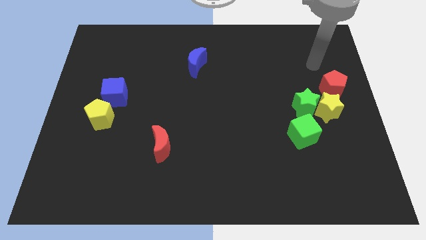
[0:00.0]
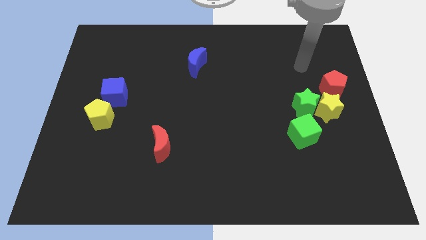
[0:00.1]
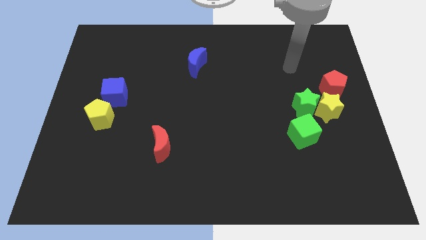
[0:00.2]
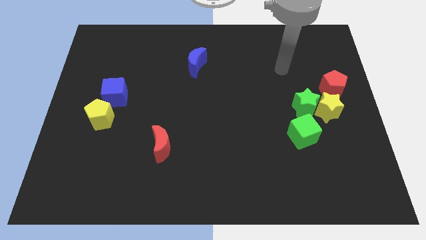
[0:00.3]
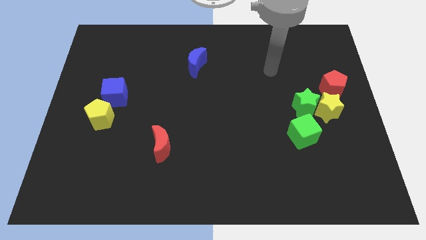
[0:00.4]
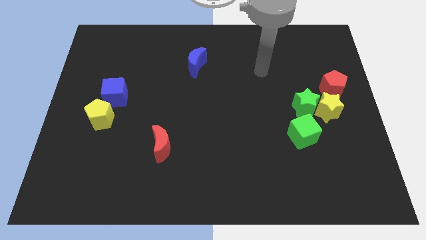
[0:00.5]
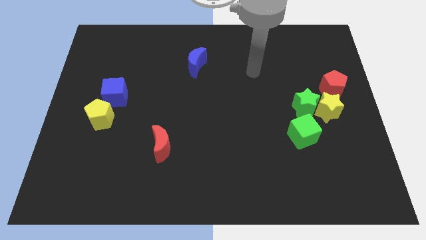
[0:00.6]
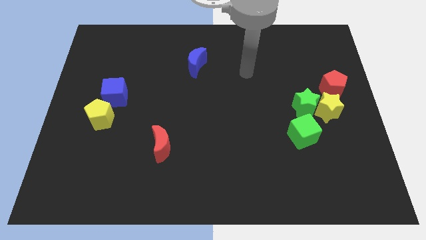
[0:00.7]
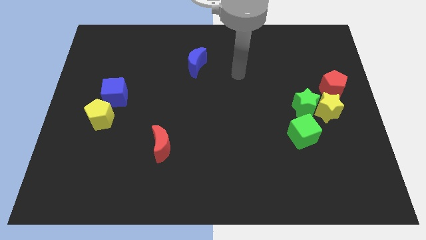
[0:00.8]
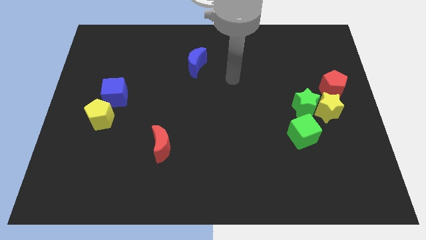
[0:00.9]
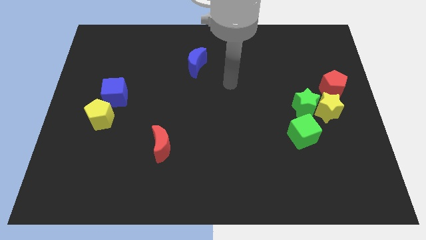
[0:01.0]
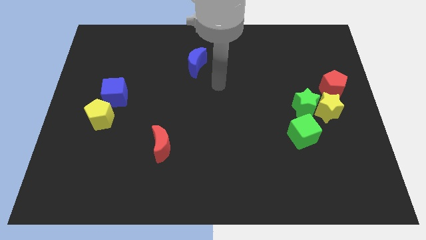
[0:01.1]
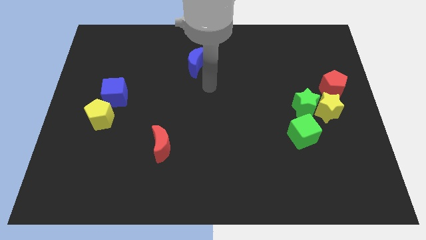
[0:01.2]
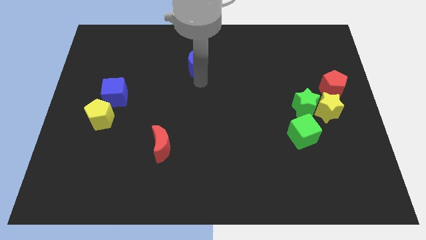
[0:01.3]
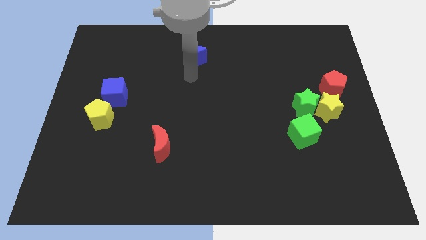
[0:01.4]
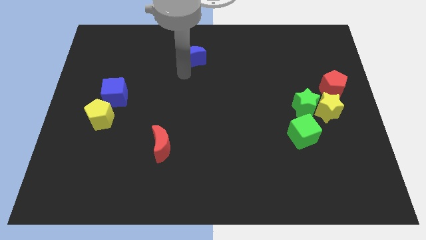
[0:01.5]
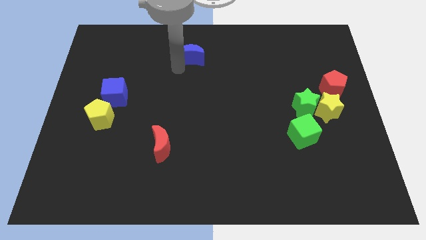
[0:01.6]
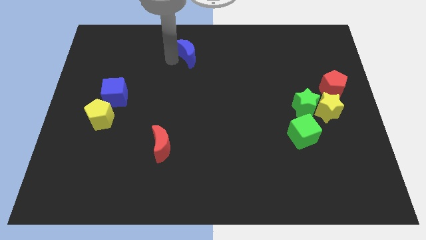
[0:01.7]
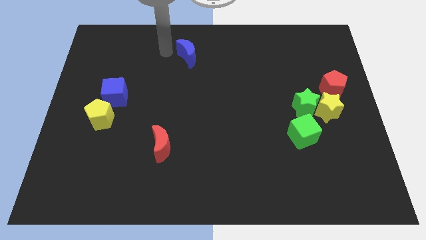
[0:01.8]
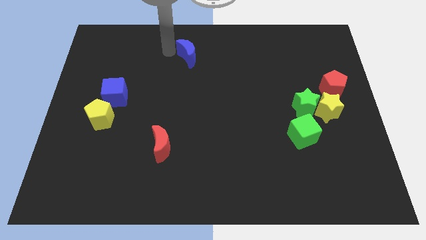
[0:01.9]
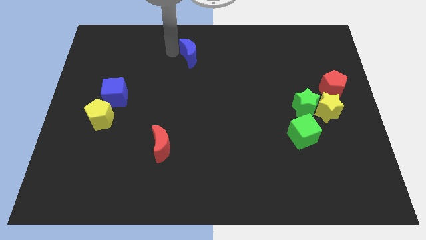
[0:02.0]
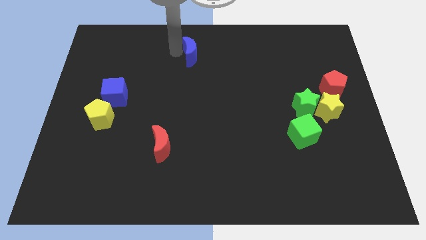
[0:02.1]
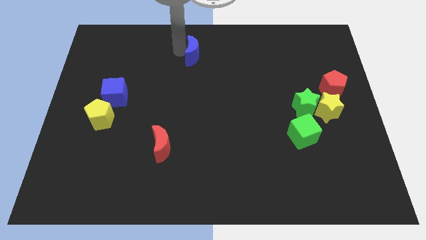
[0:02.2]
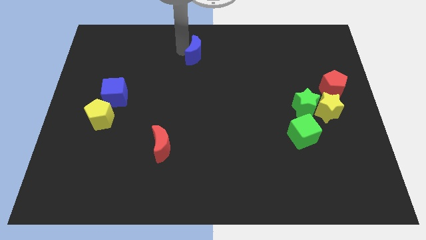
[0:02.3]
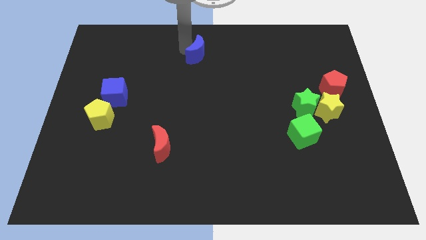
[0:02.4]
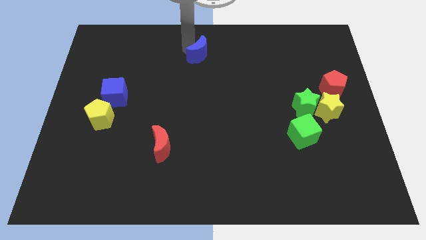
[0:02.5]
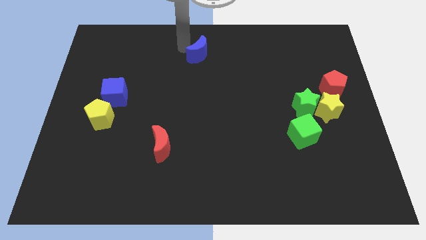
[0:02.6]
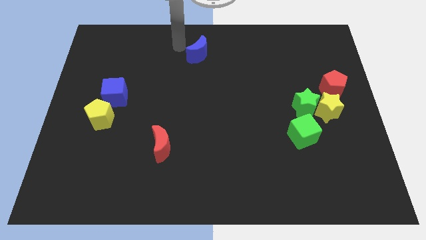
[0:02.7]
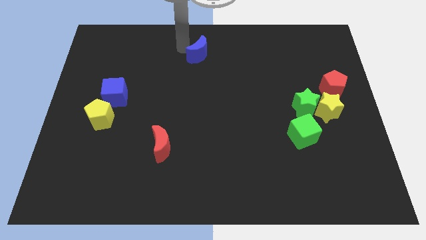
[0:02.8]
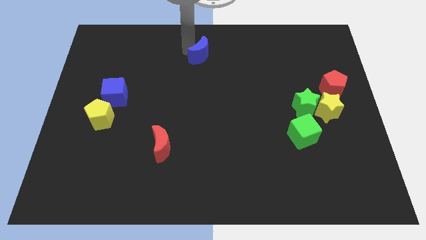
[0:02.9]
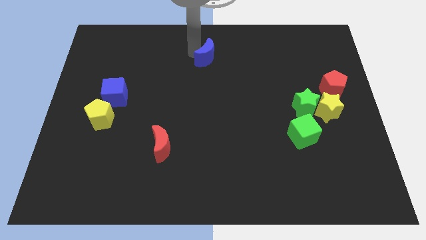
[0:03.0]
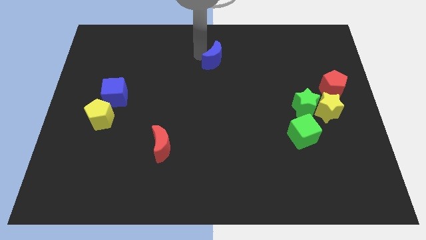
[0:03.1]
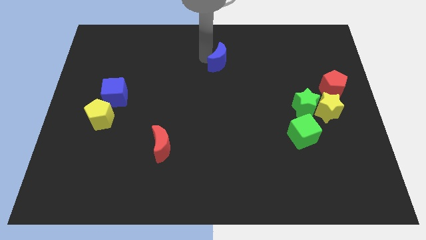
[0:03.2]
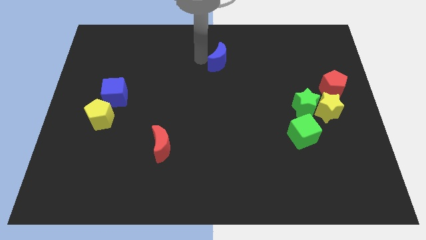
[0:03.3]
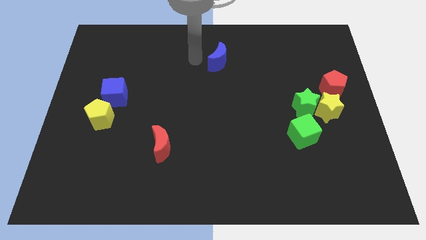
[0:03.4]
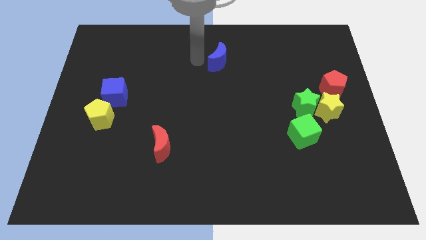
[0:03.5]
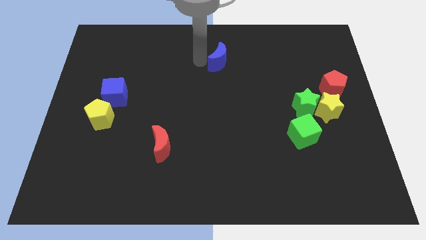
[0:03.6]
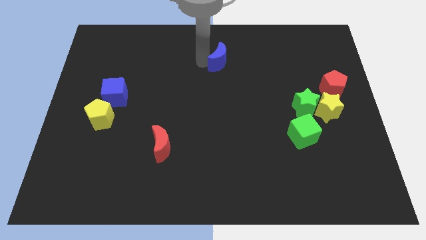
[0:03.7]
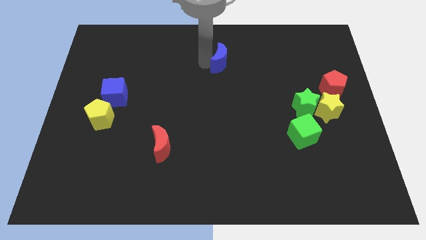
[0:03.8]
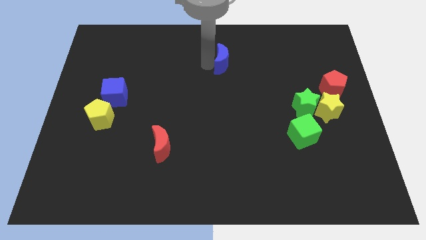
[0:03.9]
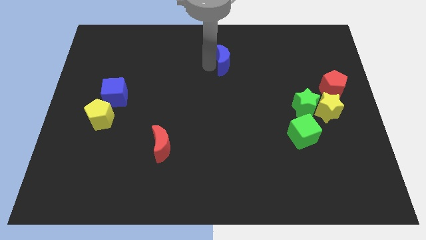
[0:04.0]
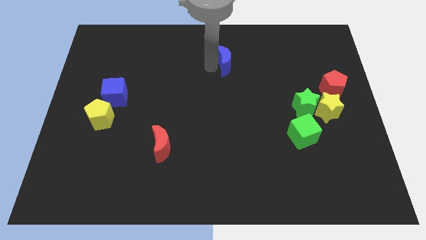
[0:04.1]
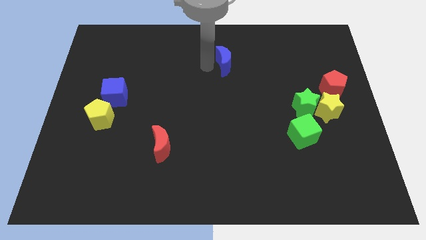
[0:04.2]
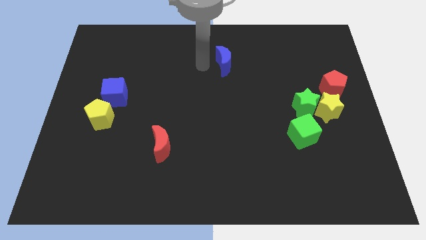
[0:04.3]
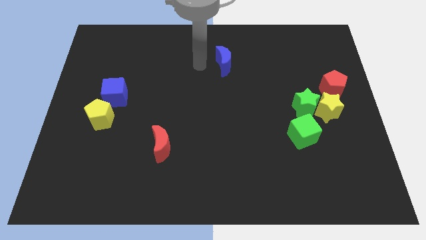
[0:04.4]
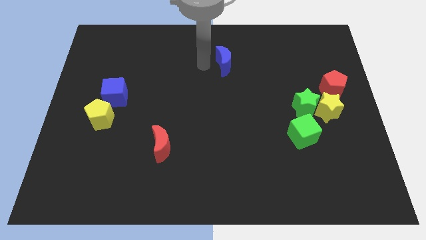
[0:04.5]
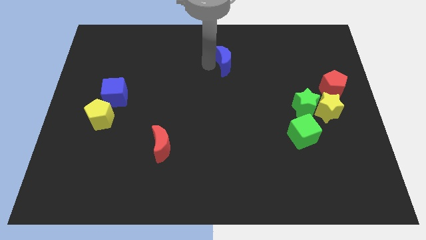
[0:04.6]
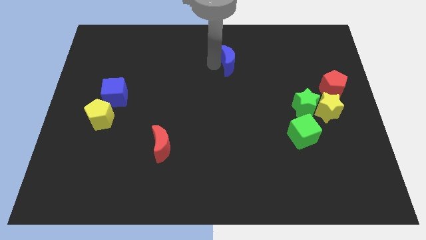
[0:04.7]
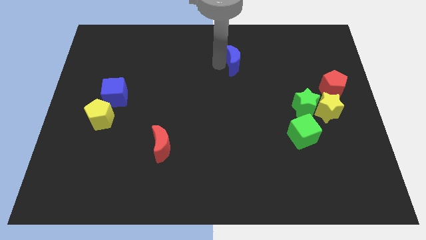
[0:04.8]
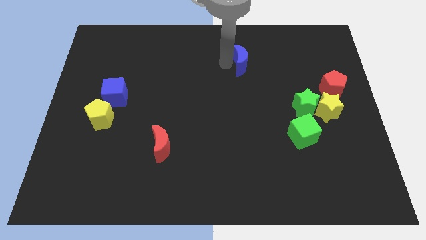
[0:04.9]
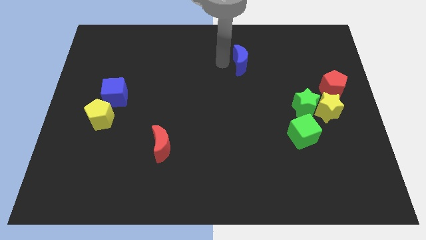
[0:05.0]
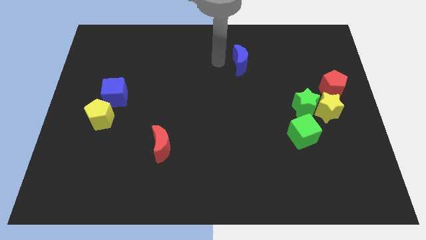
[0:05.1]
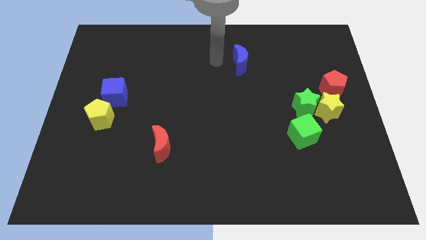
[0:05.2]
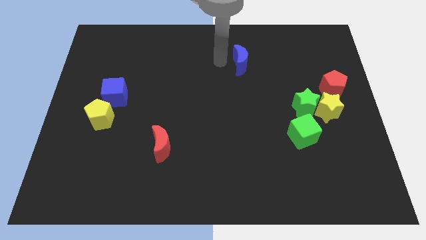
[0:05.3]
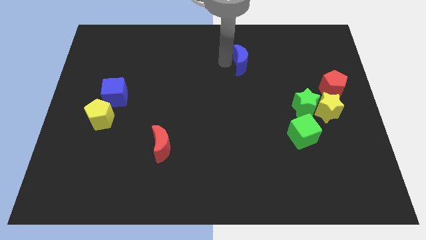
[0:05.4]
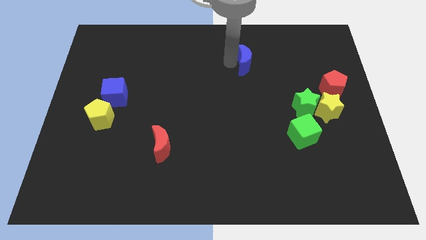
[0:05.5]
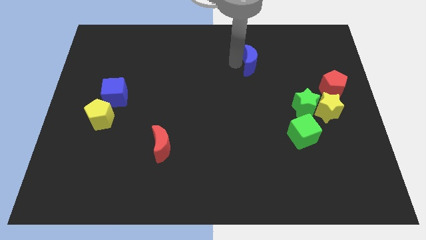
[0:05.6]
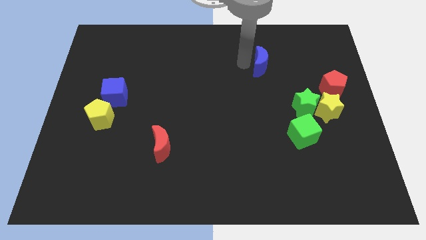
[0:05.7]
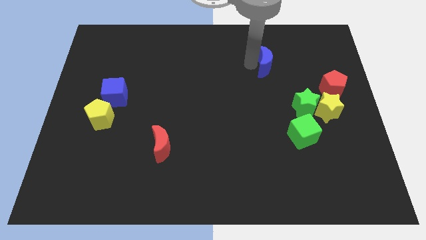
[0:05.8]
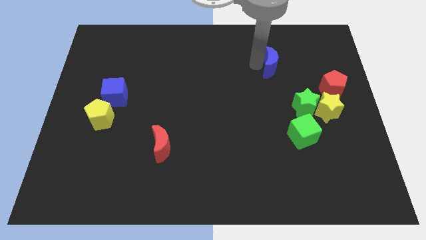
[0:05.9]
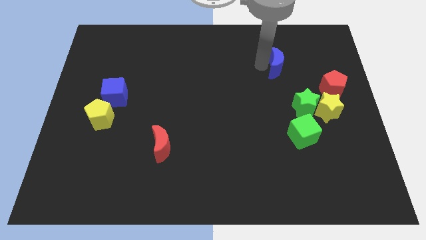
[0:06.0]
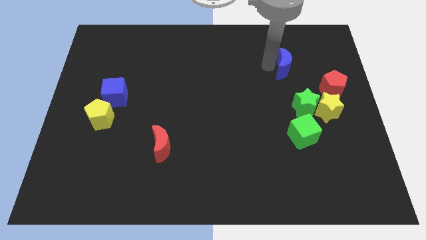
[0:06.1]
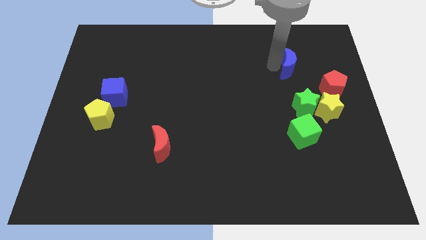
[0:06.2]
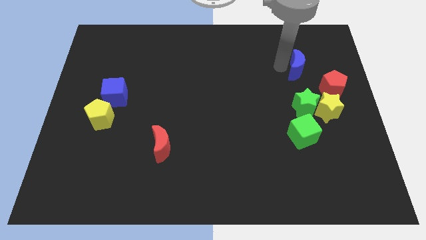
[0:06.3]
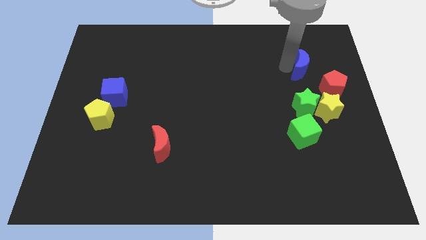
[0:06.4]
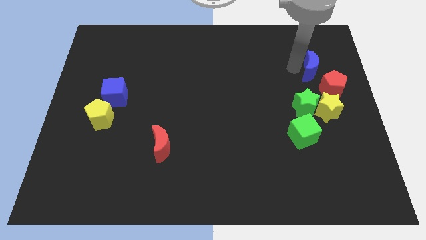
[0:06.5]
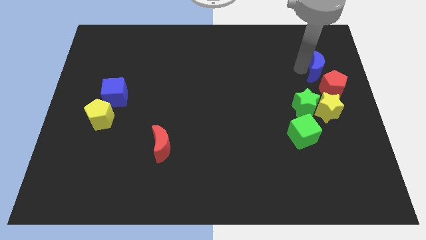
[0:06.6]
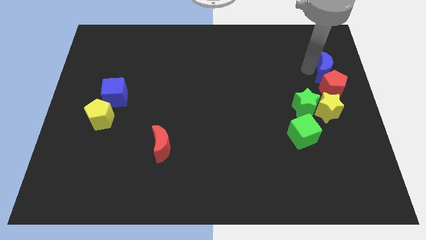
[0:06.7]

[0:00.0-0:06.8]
move the blue moon to the right side of the board

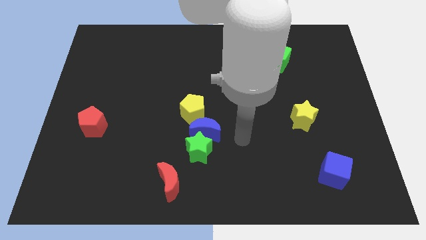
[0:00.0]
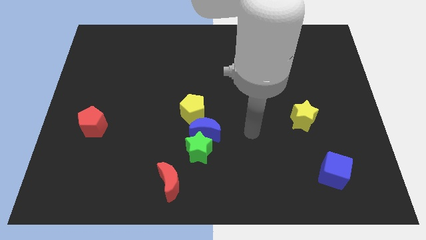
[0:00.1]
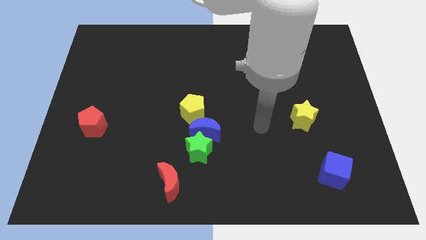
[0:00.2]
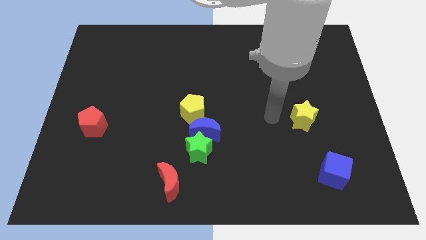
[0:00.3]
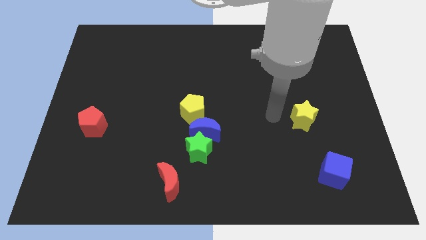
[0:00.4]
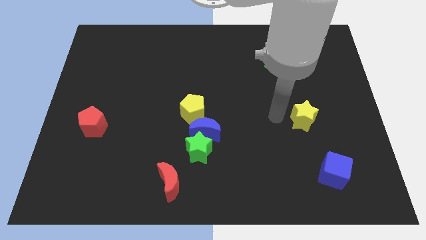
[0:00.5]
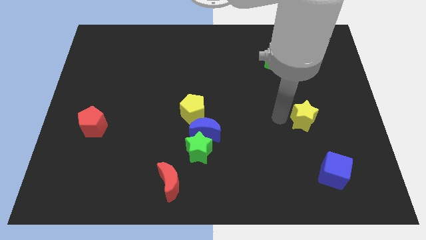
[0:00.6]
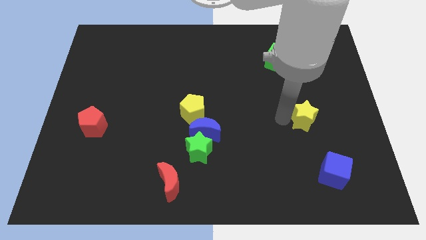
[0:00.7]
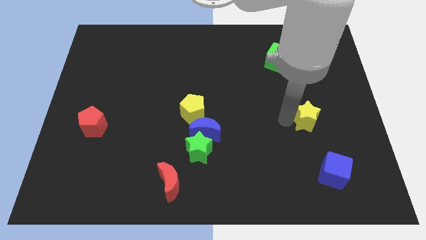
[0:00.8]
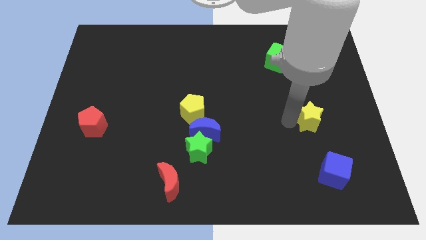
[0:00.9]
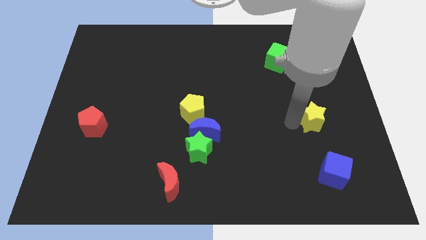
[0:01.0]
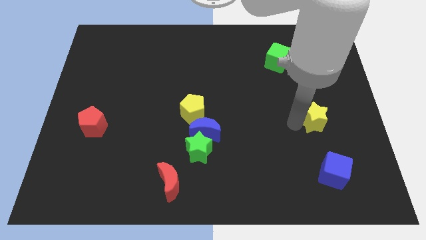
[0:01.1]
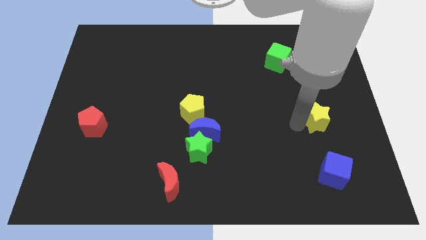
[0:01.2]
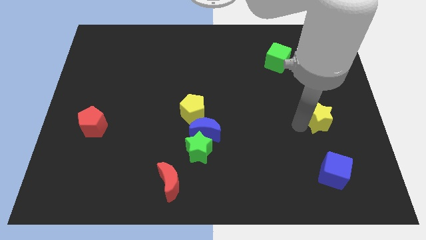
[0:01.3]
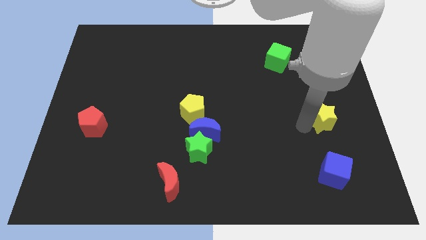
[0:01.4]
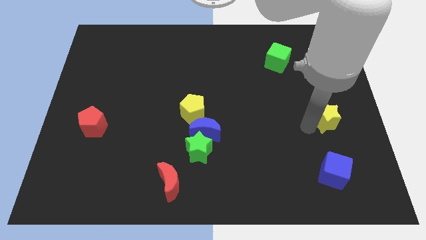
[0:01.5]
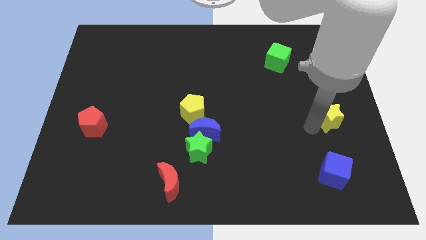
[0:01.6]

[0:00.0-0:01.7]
put the yellow star to the right side of the board
